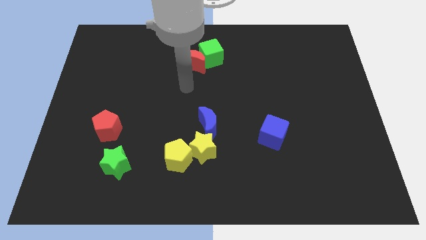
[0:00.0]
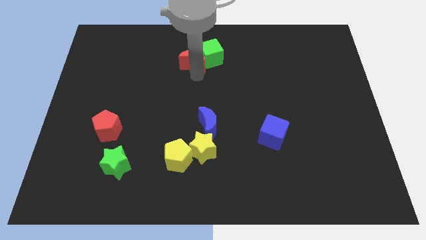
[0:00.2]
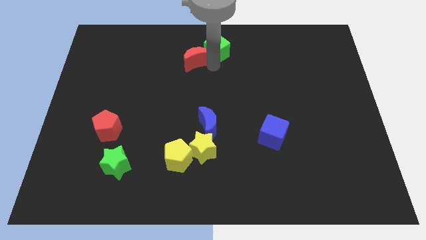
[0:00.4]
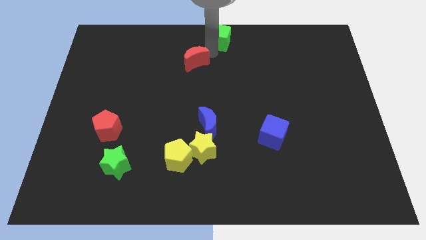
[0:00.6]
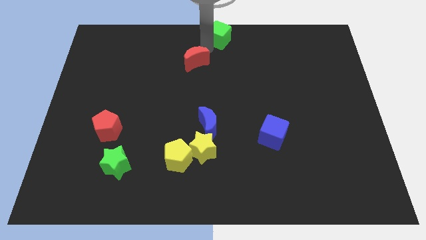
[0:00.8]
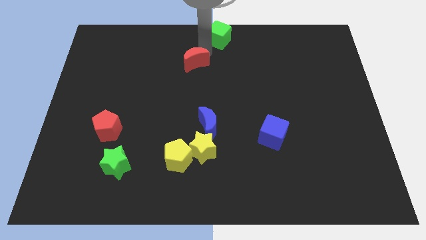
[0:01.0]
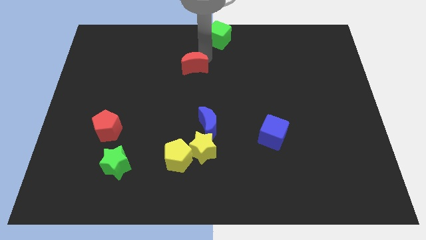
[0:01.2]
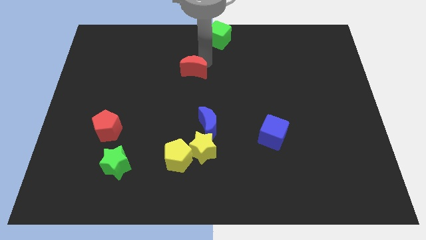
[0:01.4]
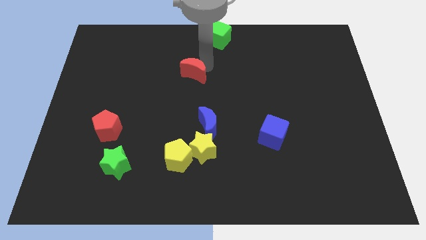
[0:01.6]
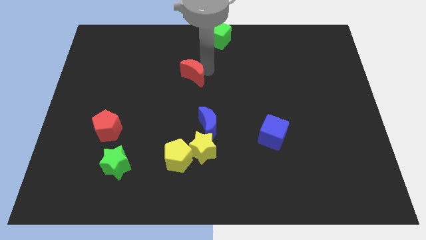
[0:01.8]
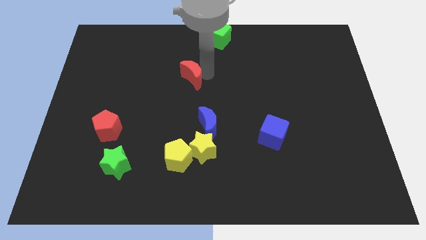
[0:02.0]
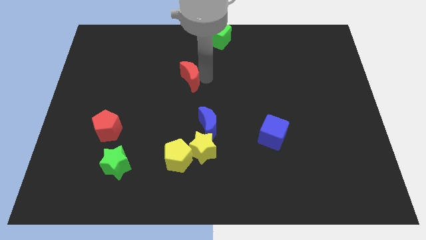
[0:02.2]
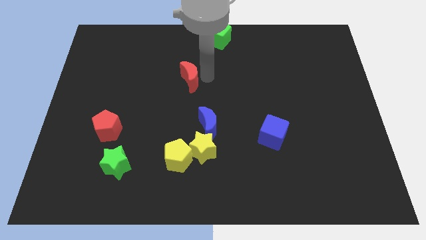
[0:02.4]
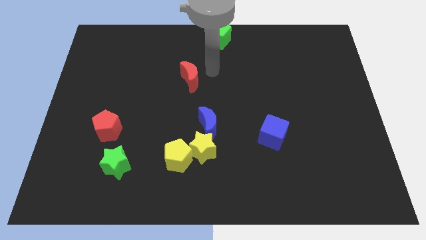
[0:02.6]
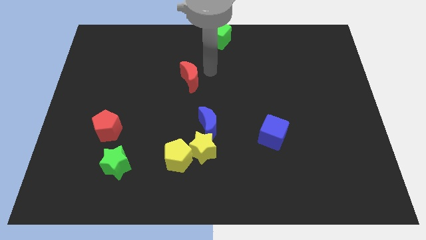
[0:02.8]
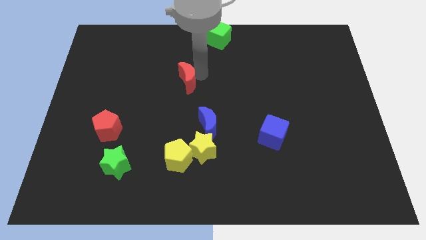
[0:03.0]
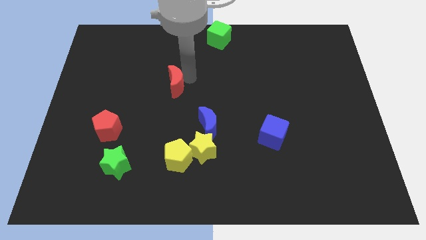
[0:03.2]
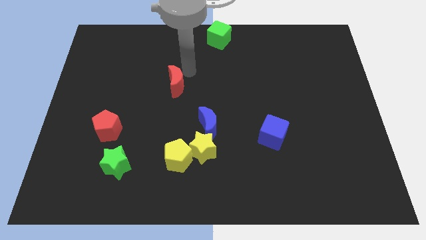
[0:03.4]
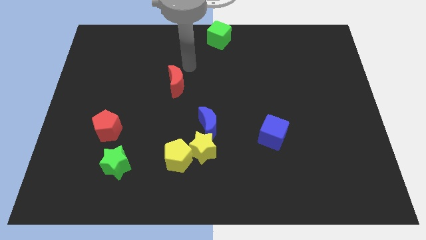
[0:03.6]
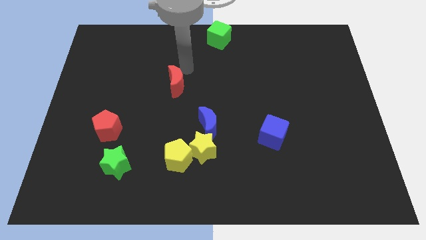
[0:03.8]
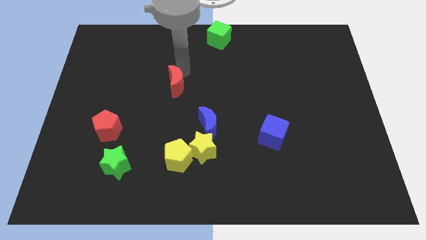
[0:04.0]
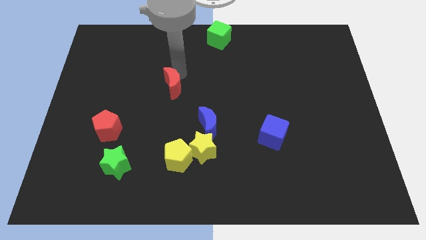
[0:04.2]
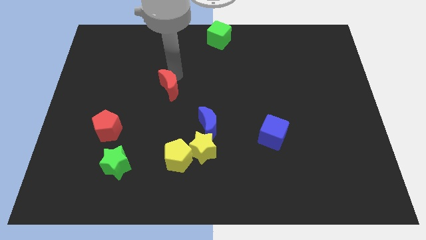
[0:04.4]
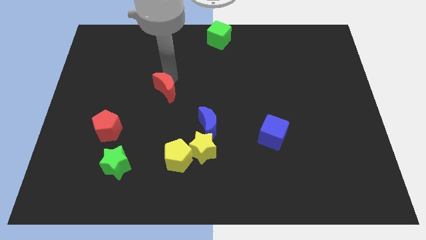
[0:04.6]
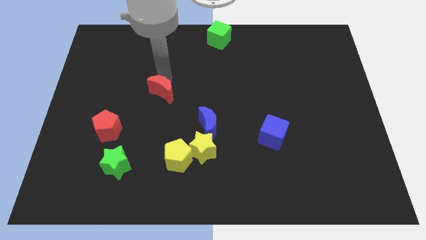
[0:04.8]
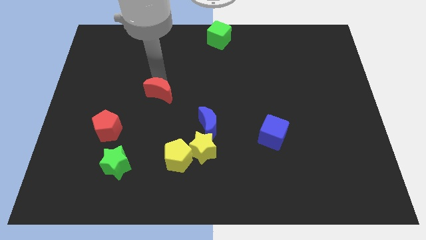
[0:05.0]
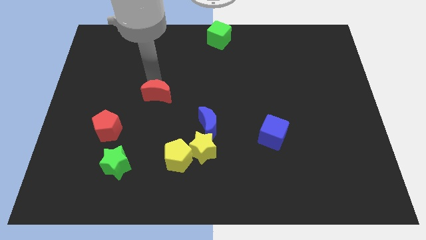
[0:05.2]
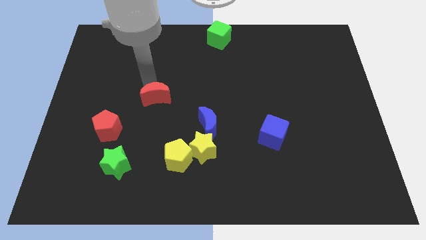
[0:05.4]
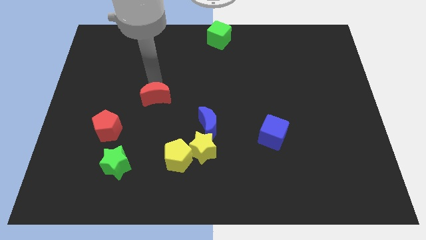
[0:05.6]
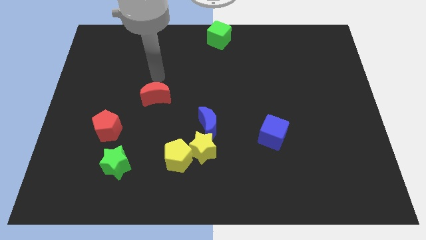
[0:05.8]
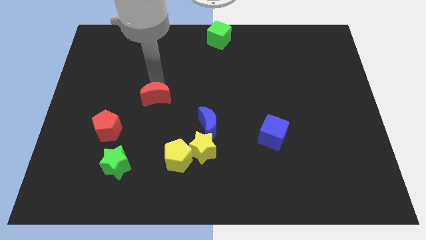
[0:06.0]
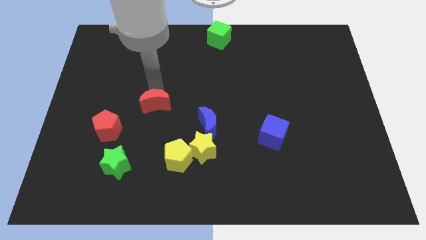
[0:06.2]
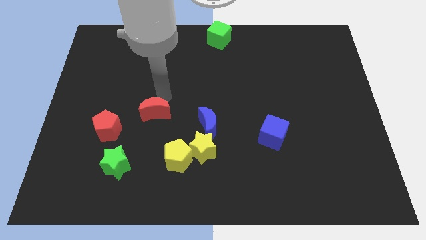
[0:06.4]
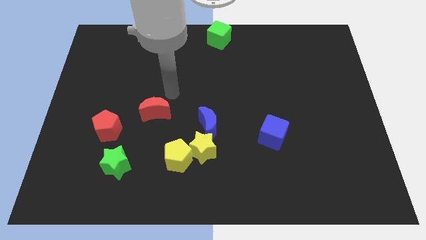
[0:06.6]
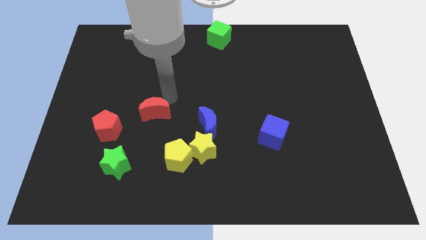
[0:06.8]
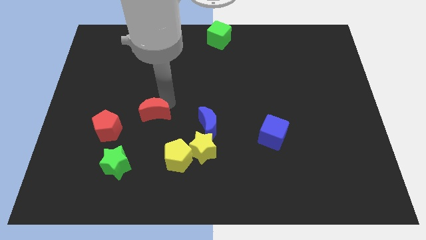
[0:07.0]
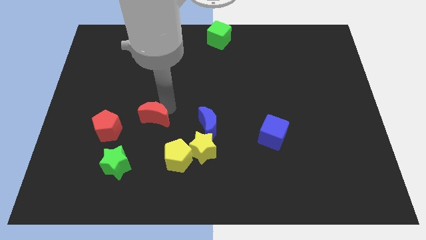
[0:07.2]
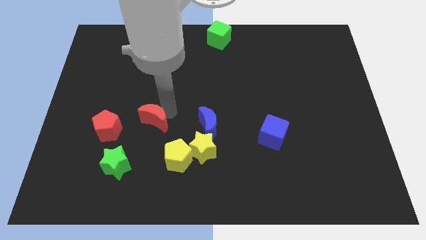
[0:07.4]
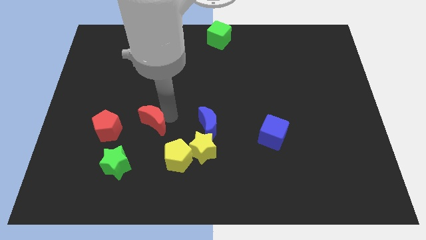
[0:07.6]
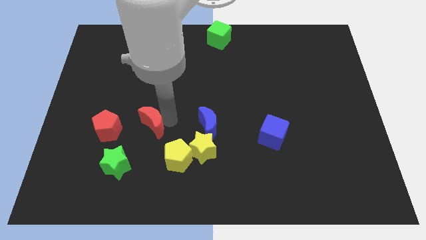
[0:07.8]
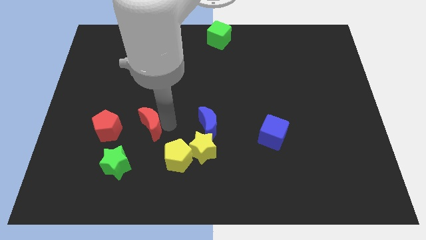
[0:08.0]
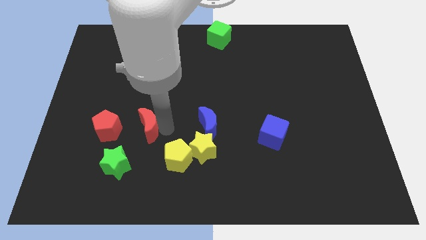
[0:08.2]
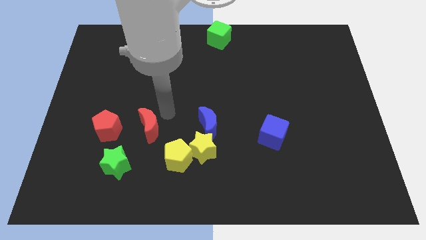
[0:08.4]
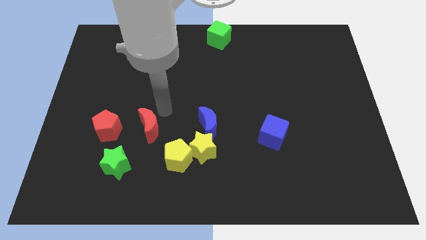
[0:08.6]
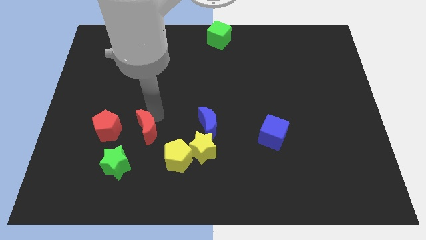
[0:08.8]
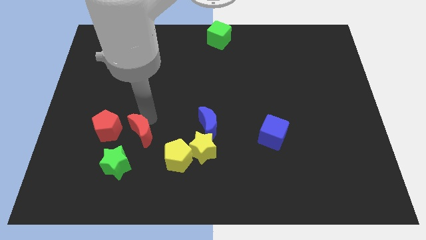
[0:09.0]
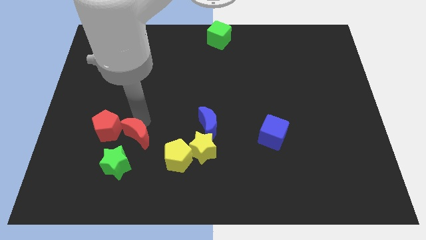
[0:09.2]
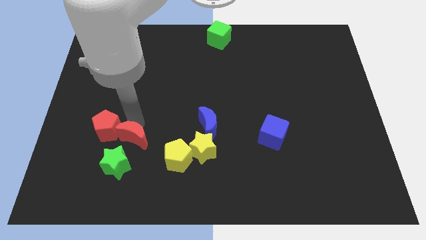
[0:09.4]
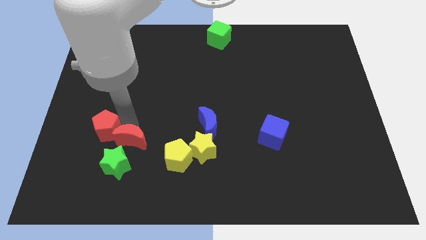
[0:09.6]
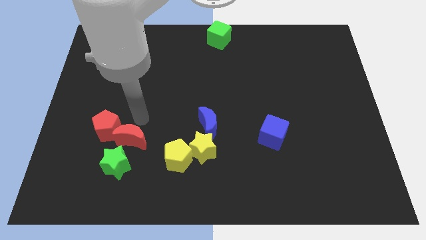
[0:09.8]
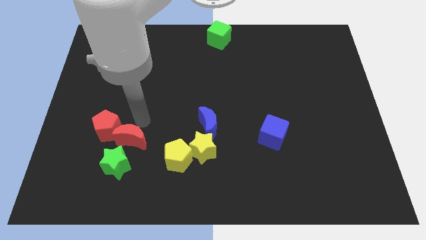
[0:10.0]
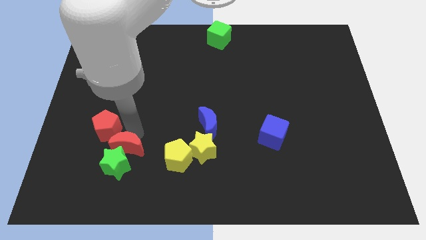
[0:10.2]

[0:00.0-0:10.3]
move the red moon next to the green star

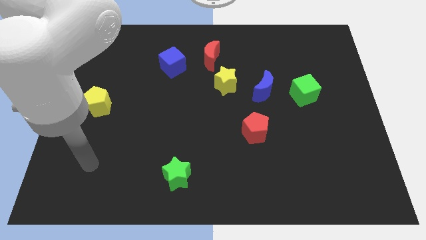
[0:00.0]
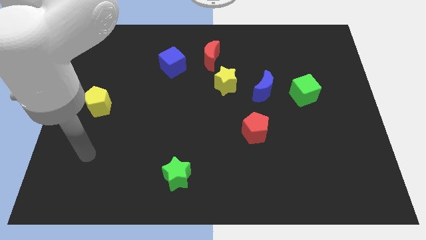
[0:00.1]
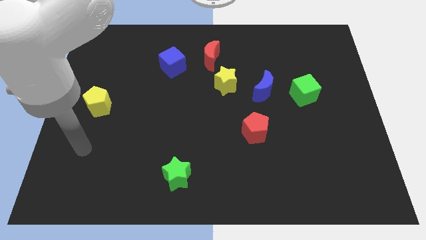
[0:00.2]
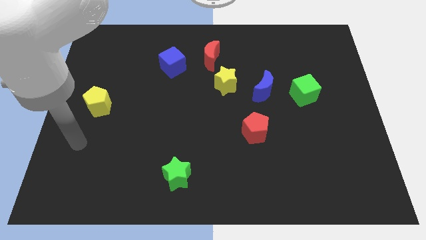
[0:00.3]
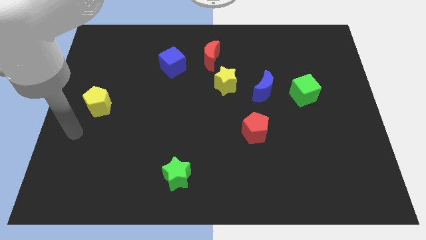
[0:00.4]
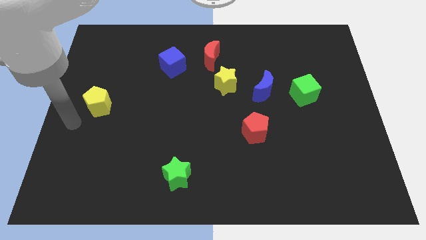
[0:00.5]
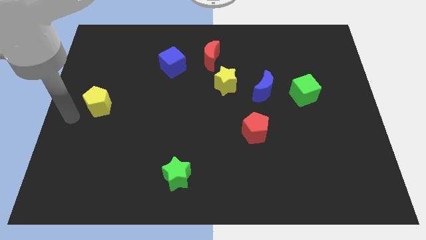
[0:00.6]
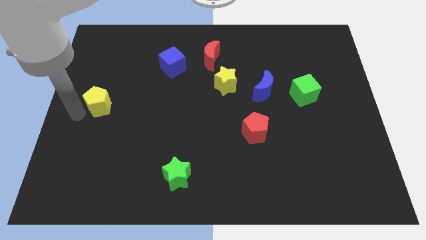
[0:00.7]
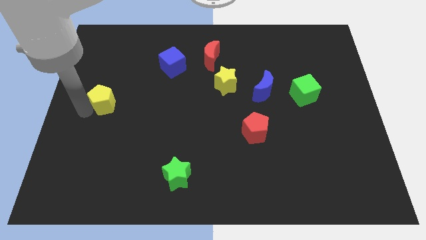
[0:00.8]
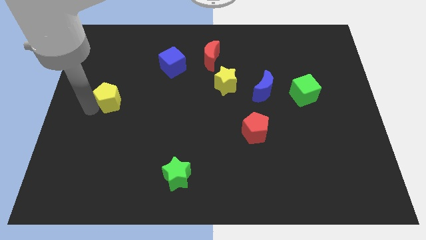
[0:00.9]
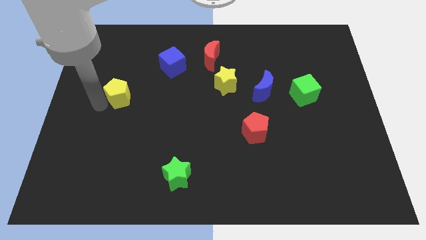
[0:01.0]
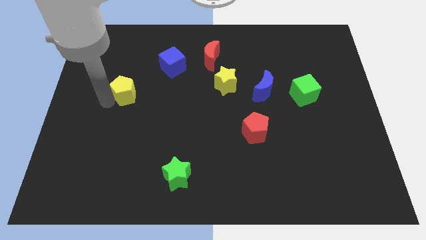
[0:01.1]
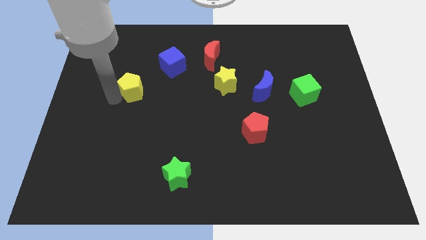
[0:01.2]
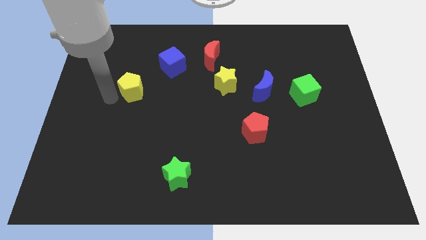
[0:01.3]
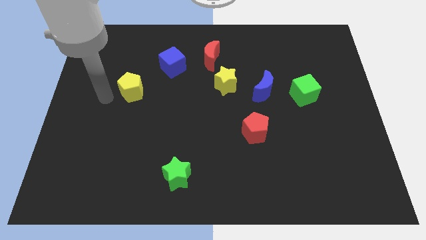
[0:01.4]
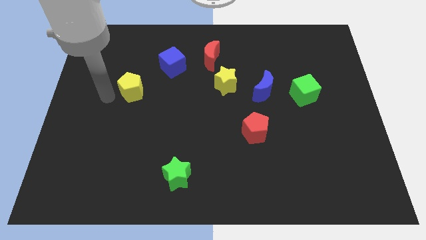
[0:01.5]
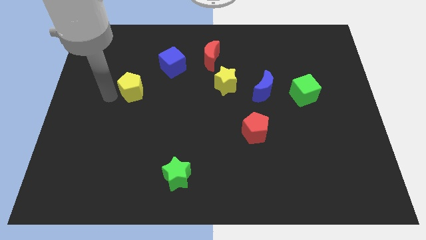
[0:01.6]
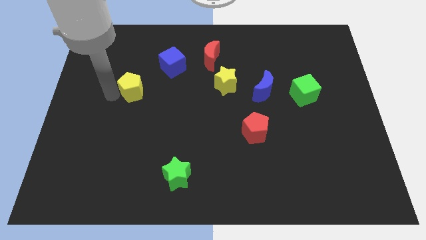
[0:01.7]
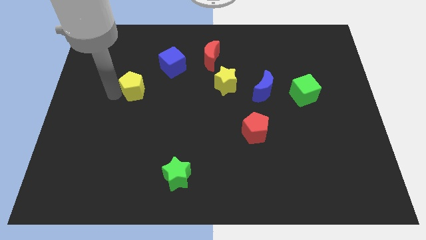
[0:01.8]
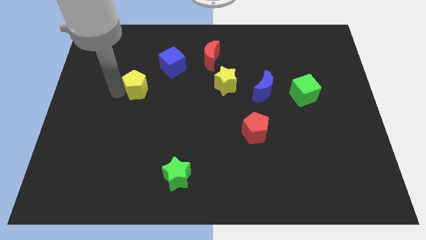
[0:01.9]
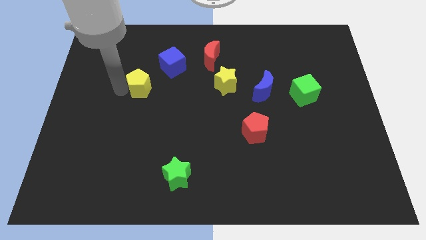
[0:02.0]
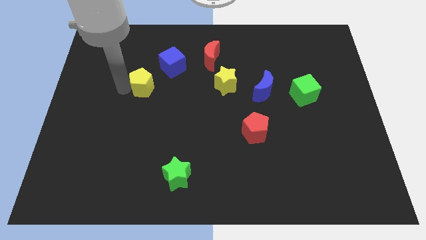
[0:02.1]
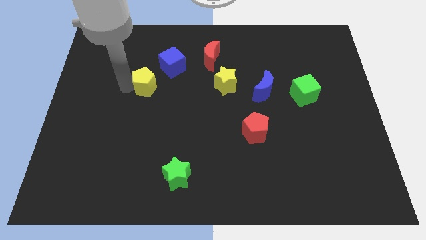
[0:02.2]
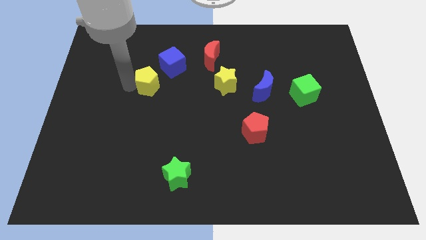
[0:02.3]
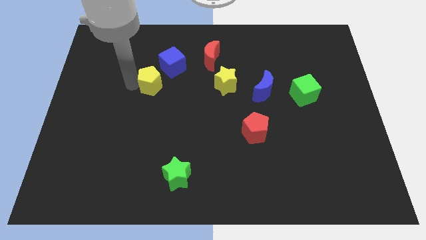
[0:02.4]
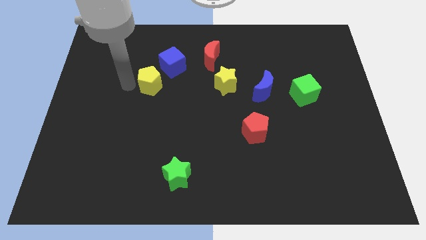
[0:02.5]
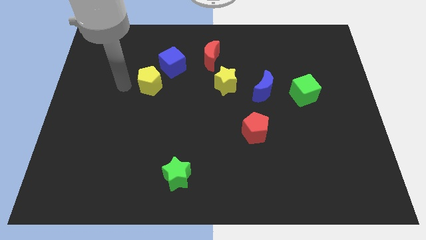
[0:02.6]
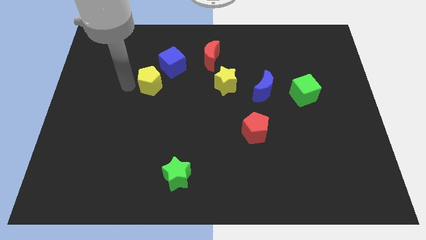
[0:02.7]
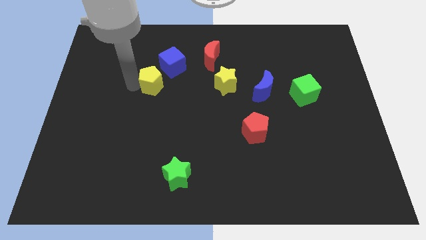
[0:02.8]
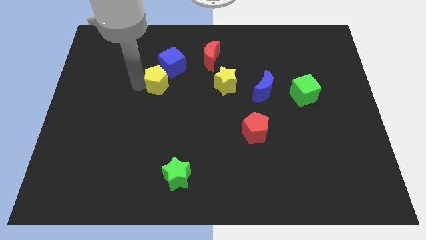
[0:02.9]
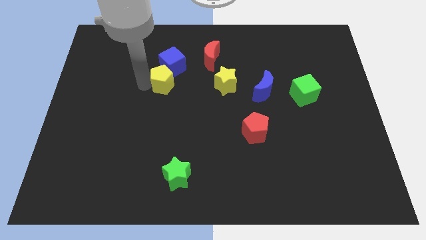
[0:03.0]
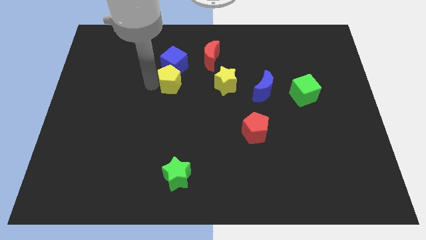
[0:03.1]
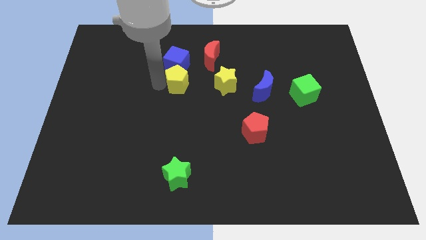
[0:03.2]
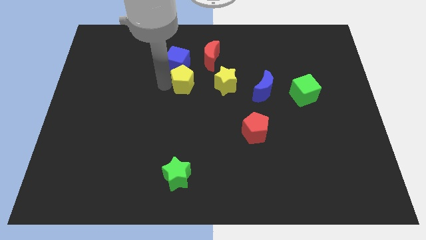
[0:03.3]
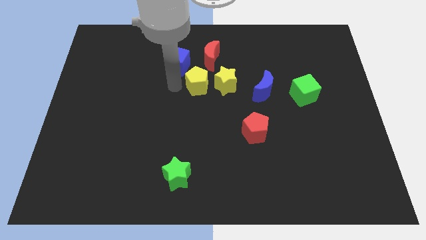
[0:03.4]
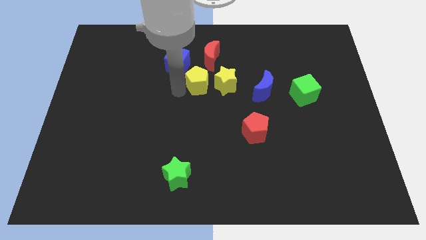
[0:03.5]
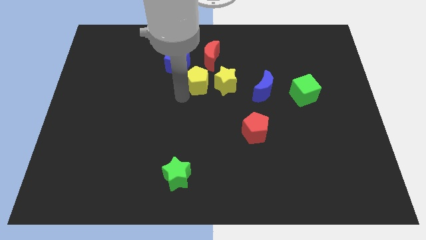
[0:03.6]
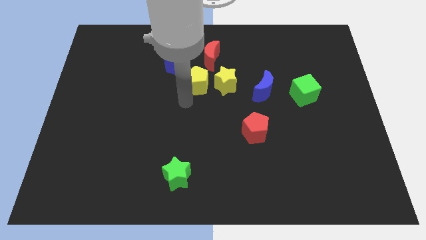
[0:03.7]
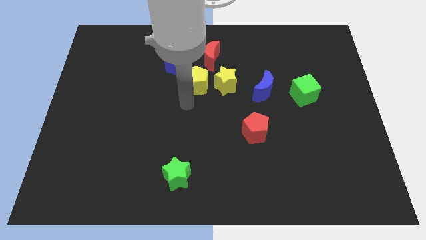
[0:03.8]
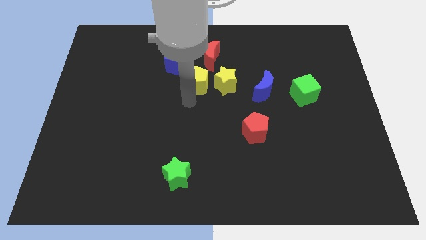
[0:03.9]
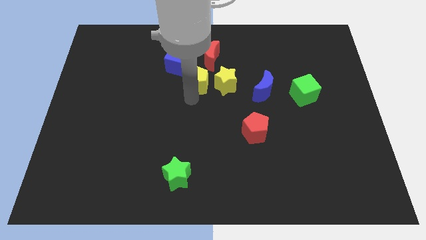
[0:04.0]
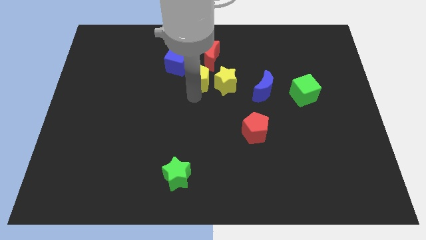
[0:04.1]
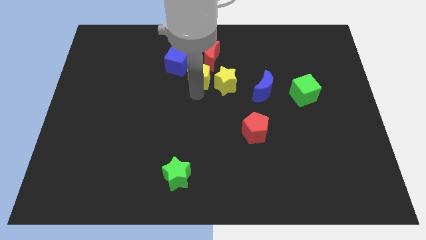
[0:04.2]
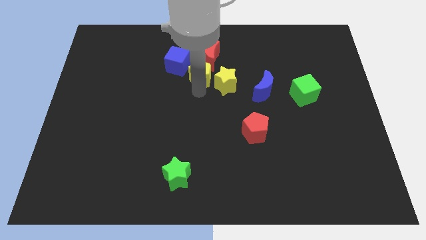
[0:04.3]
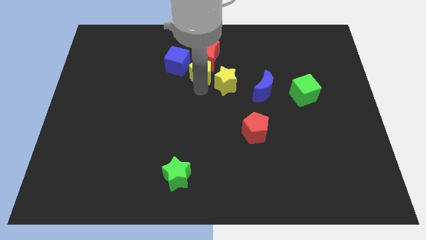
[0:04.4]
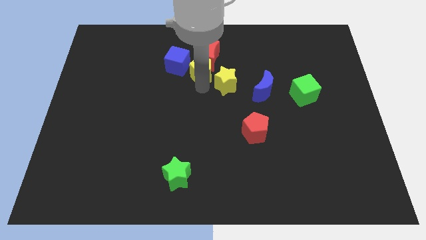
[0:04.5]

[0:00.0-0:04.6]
push the yellow pentagon towards the red moon
